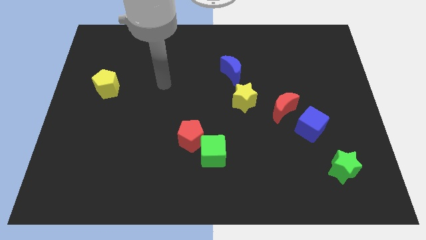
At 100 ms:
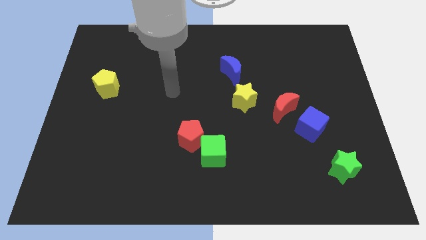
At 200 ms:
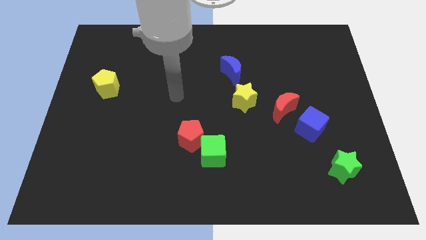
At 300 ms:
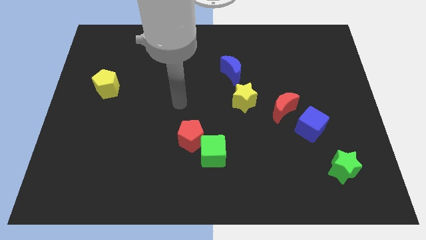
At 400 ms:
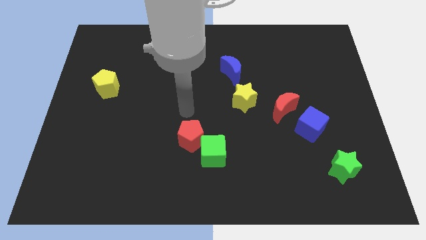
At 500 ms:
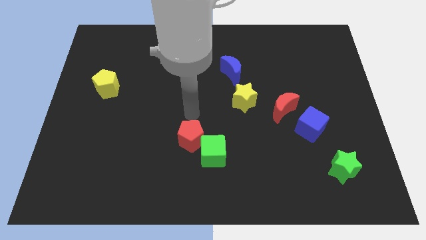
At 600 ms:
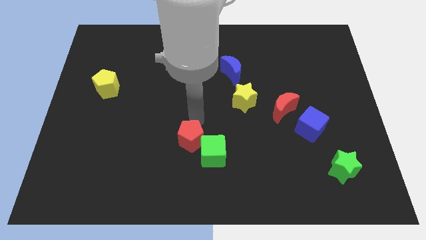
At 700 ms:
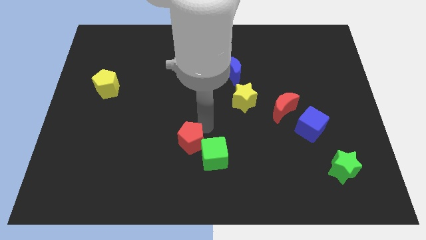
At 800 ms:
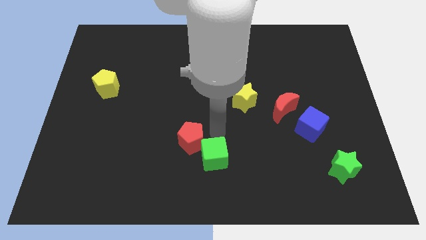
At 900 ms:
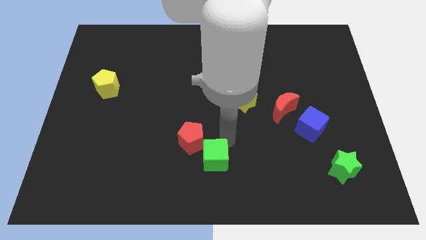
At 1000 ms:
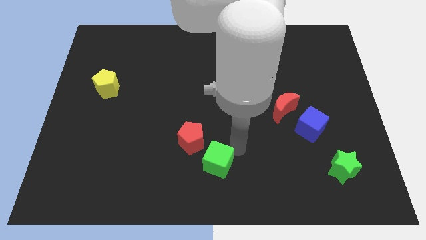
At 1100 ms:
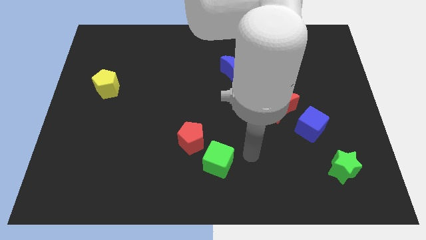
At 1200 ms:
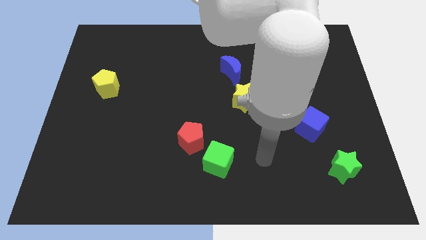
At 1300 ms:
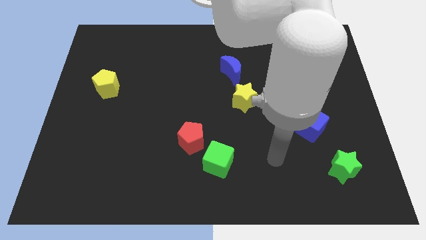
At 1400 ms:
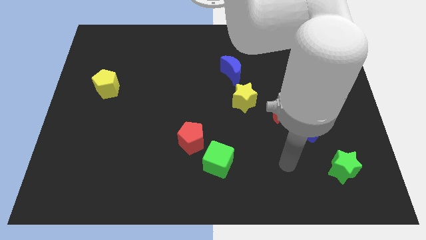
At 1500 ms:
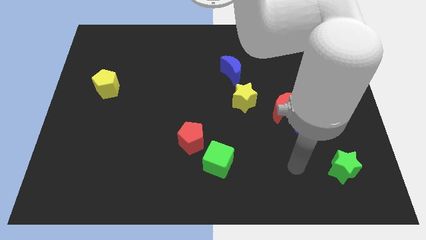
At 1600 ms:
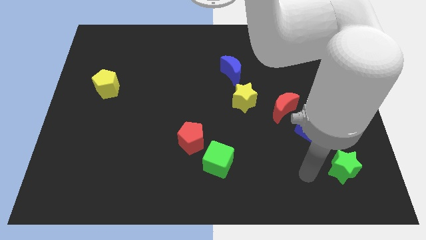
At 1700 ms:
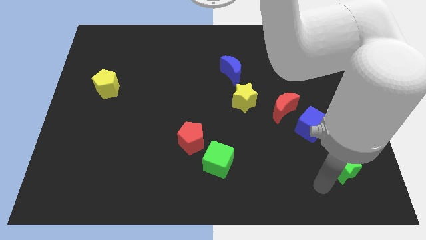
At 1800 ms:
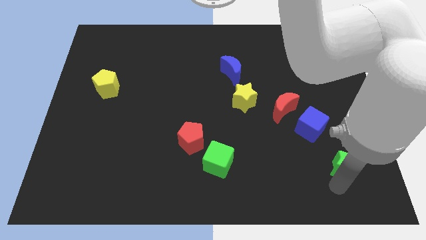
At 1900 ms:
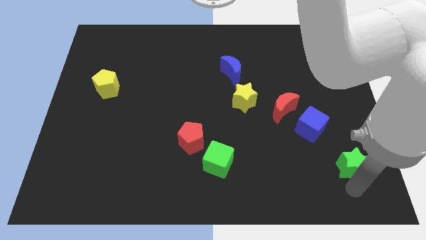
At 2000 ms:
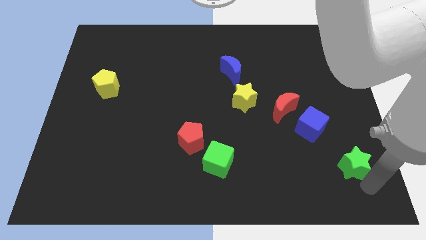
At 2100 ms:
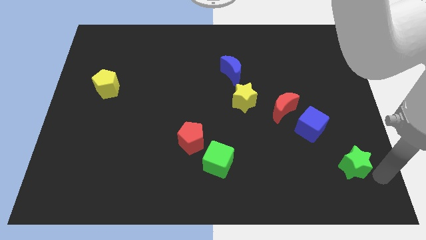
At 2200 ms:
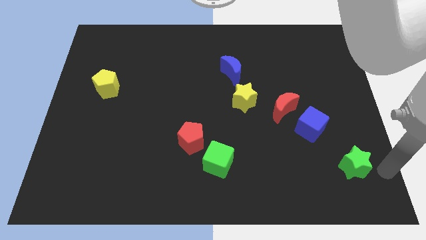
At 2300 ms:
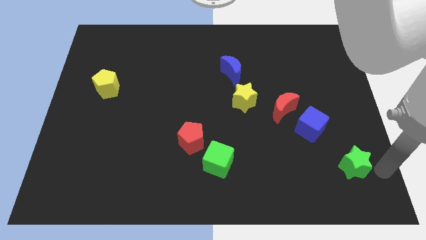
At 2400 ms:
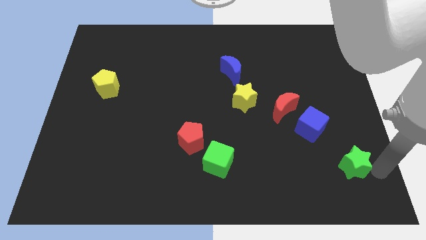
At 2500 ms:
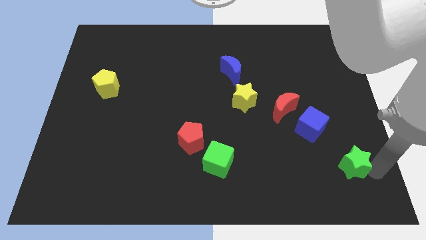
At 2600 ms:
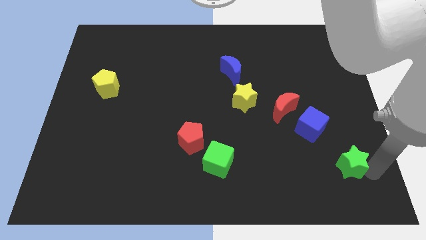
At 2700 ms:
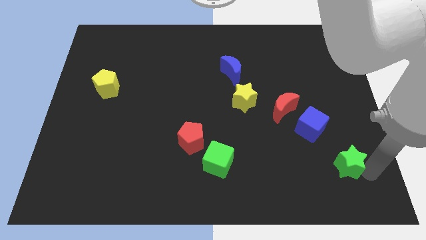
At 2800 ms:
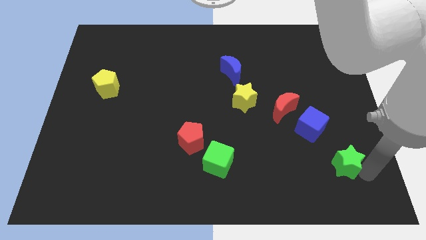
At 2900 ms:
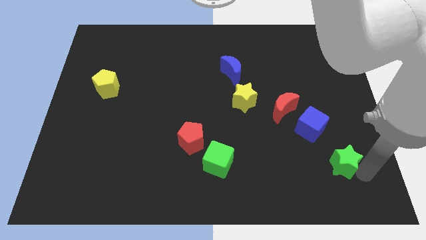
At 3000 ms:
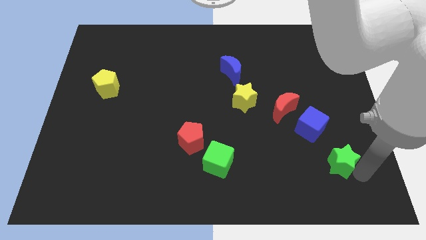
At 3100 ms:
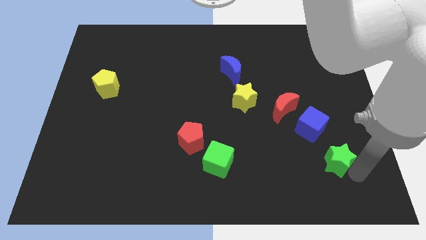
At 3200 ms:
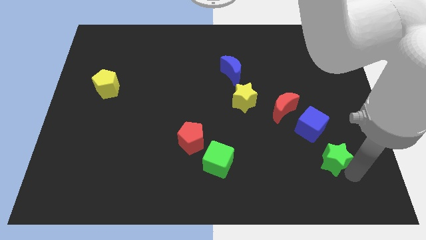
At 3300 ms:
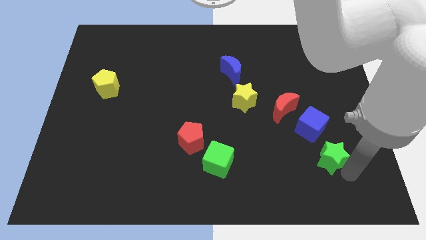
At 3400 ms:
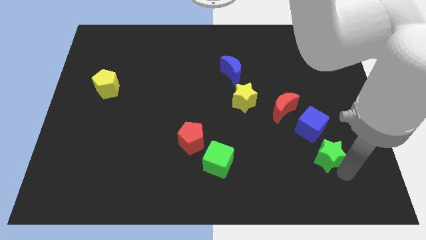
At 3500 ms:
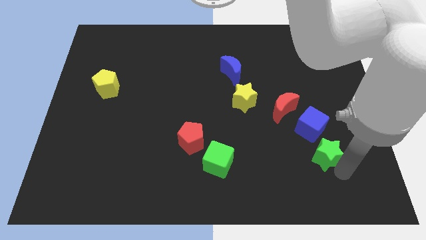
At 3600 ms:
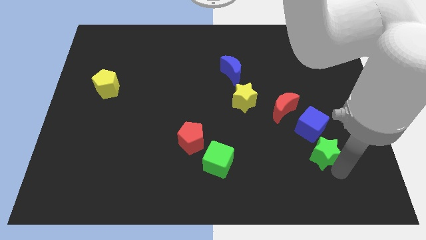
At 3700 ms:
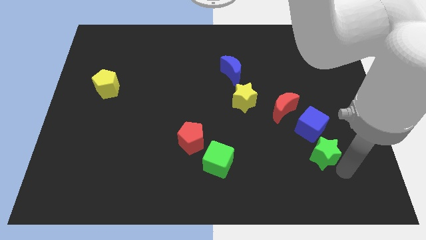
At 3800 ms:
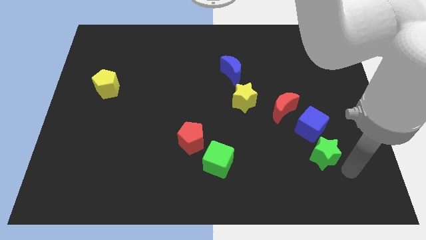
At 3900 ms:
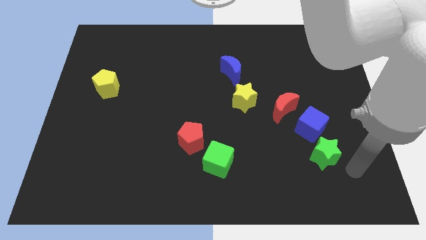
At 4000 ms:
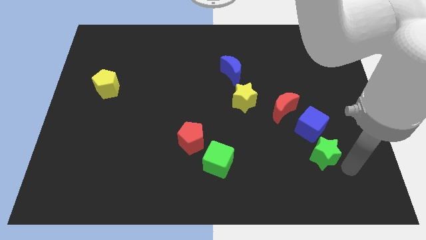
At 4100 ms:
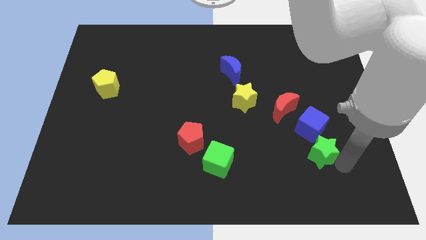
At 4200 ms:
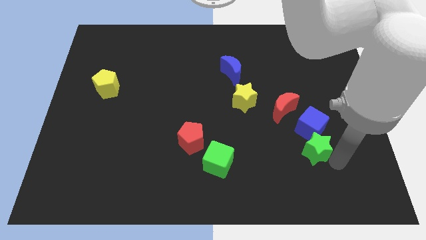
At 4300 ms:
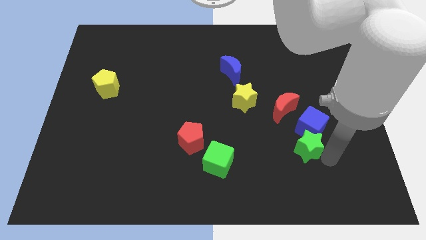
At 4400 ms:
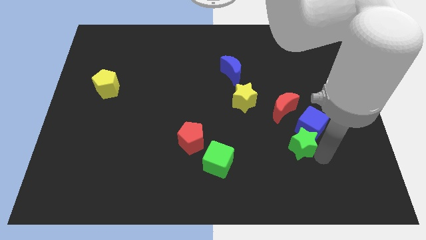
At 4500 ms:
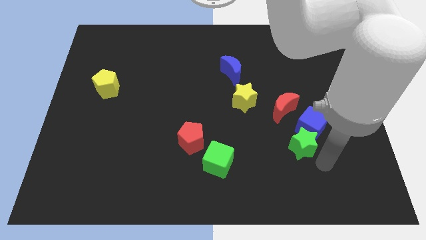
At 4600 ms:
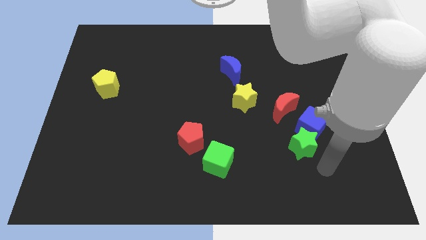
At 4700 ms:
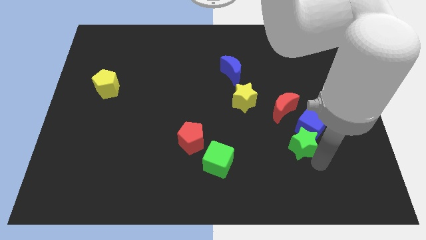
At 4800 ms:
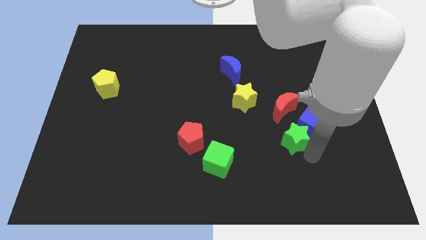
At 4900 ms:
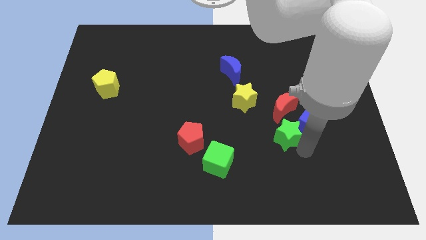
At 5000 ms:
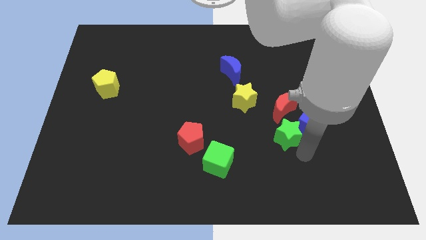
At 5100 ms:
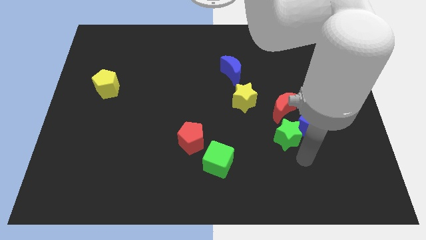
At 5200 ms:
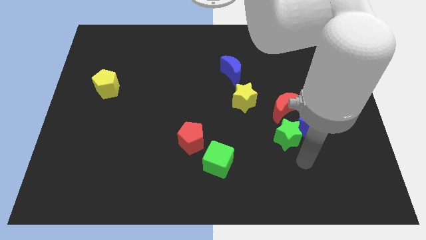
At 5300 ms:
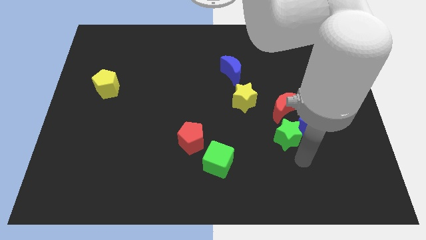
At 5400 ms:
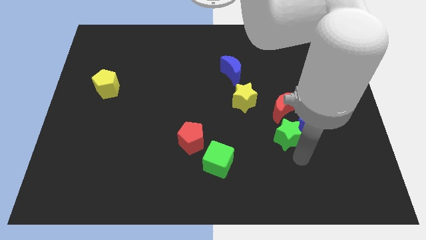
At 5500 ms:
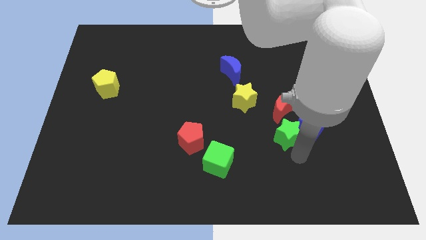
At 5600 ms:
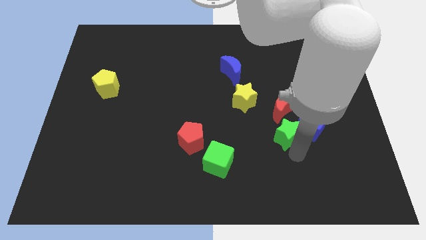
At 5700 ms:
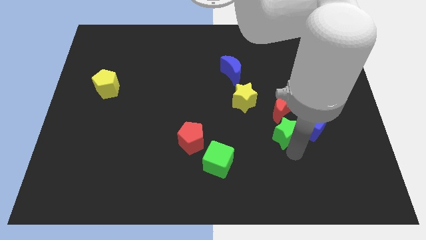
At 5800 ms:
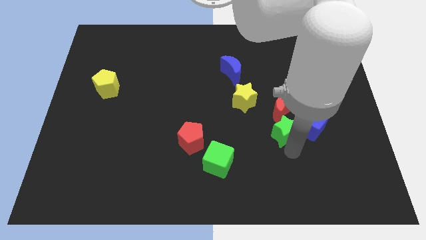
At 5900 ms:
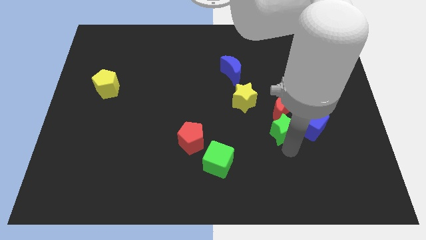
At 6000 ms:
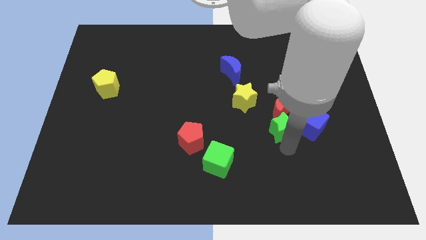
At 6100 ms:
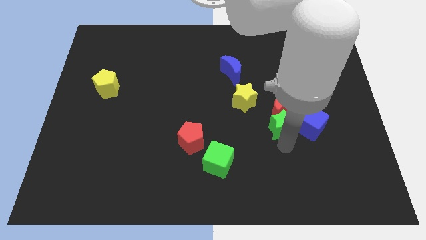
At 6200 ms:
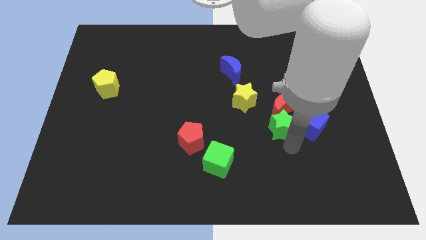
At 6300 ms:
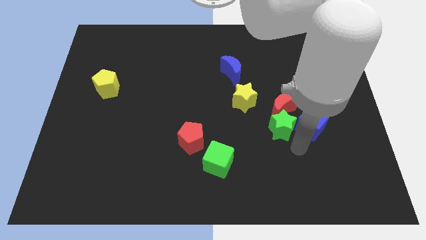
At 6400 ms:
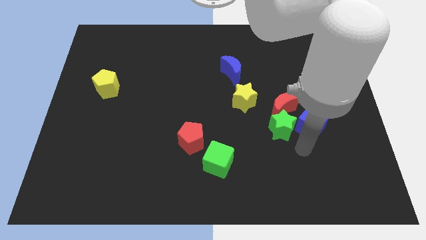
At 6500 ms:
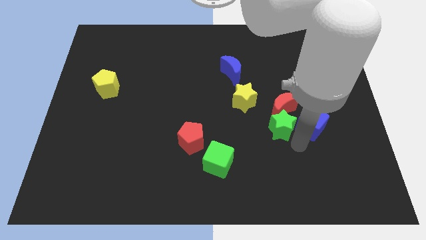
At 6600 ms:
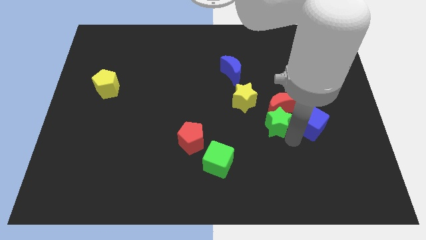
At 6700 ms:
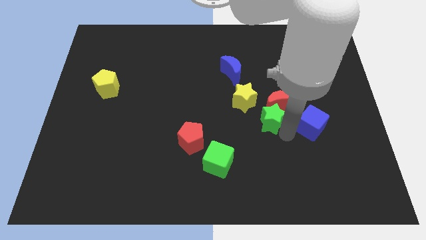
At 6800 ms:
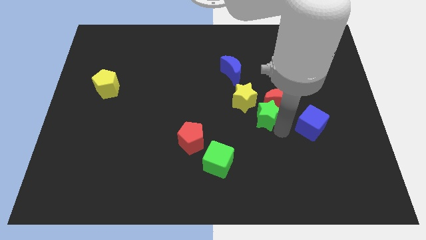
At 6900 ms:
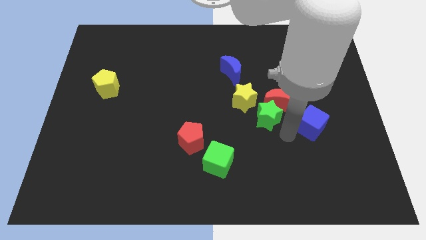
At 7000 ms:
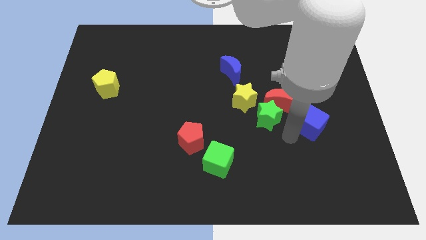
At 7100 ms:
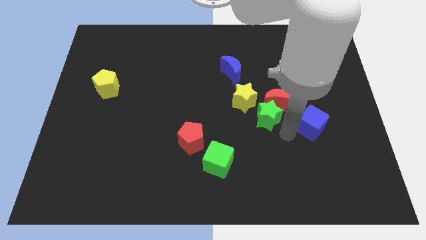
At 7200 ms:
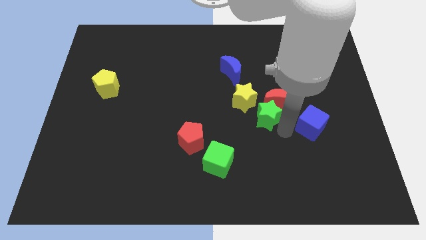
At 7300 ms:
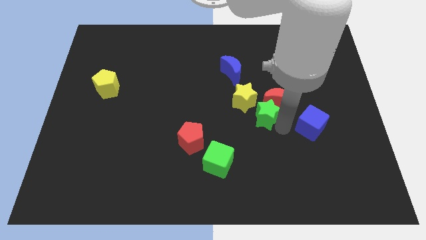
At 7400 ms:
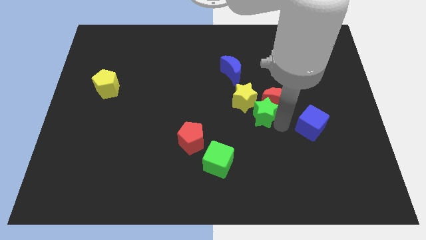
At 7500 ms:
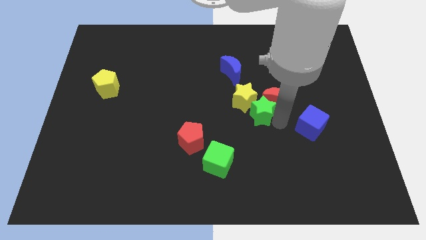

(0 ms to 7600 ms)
put the green star to the yellow star
